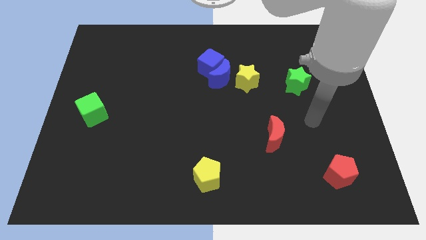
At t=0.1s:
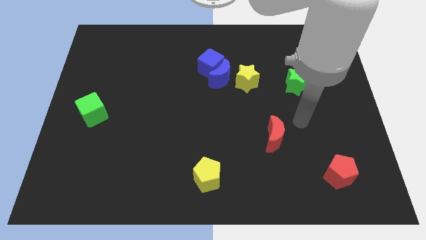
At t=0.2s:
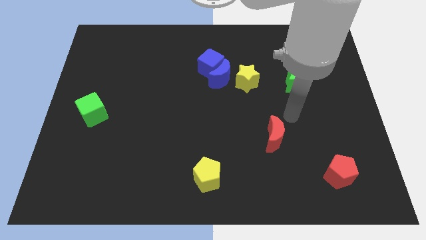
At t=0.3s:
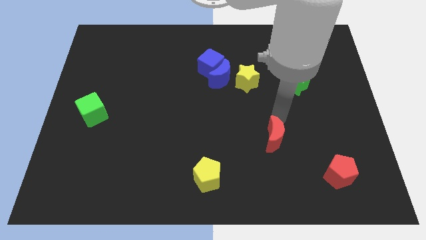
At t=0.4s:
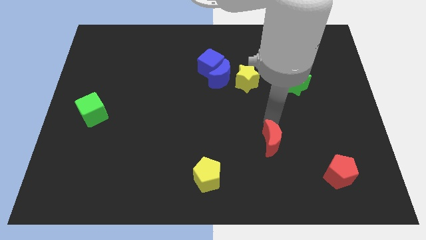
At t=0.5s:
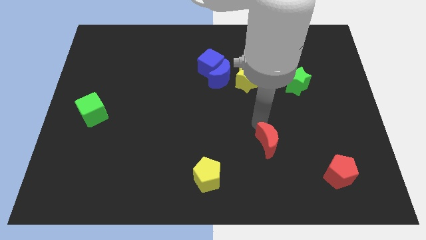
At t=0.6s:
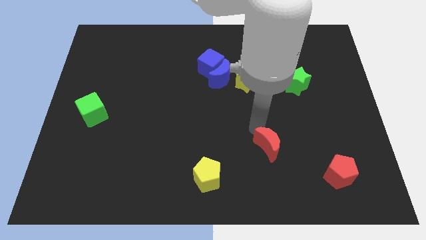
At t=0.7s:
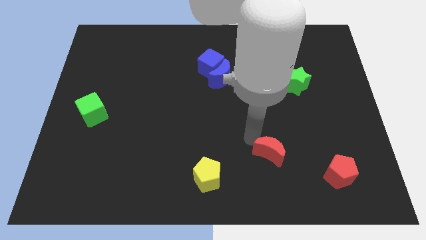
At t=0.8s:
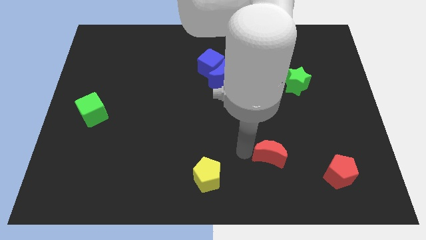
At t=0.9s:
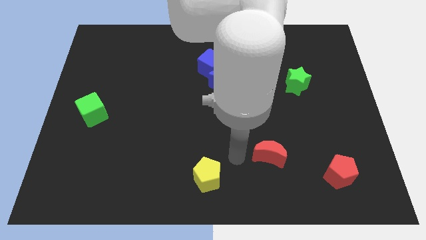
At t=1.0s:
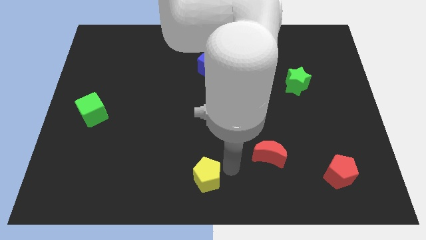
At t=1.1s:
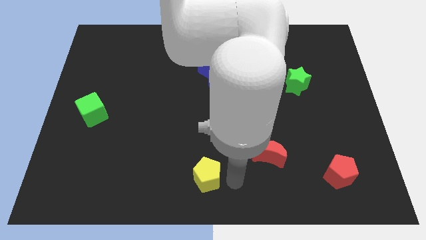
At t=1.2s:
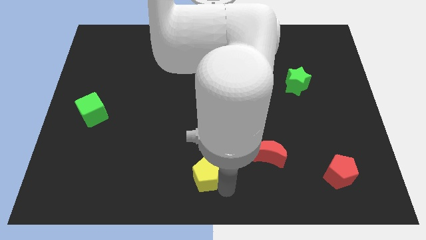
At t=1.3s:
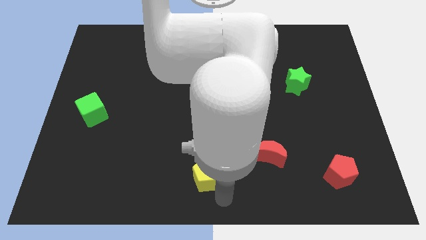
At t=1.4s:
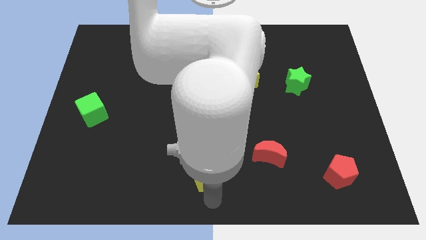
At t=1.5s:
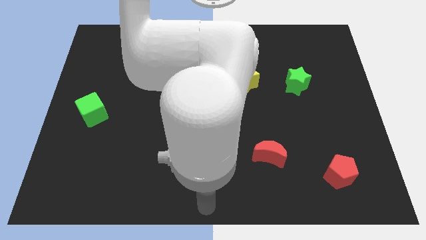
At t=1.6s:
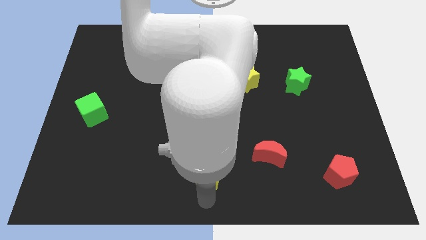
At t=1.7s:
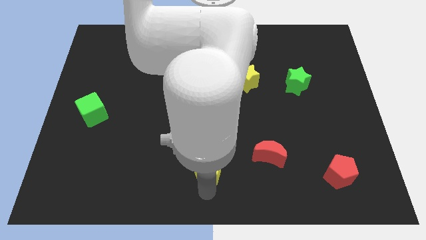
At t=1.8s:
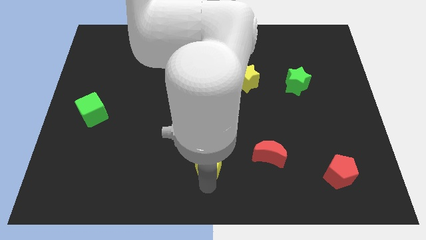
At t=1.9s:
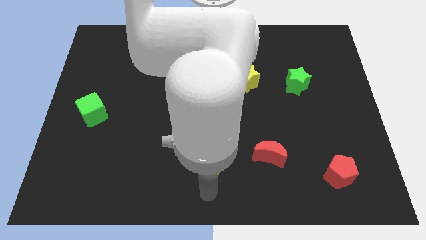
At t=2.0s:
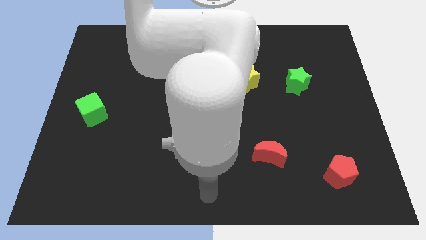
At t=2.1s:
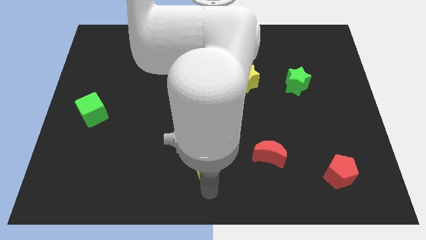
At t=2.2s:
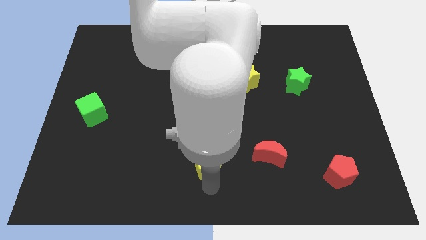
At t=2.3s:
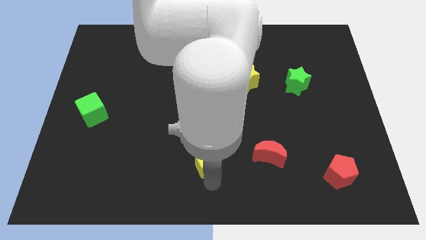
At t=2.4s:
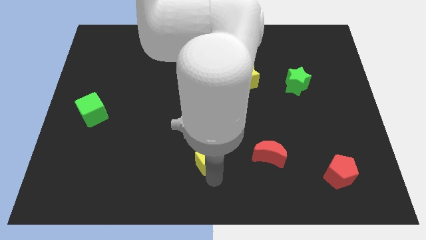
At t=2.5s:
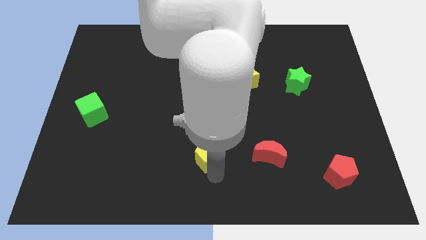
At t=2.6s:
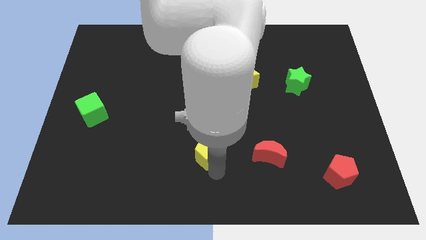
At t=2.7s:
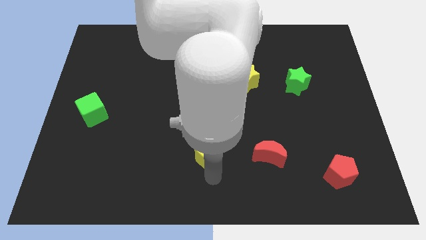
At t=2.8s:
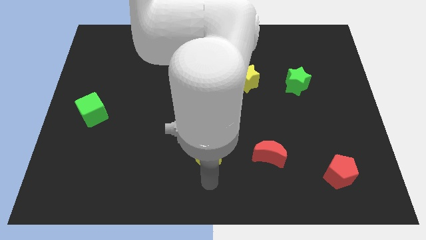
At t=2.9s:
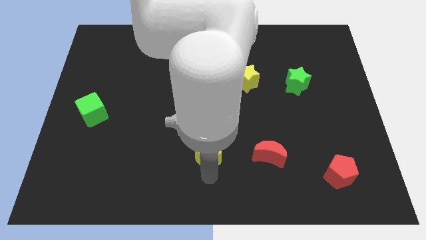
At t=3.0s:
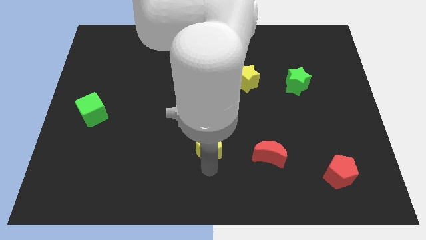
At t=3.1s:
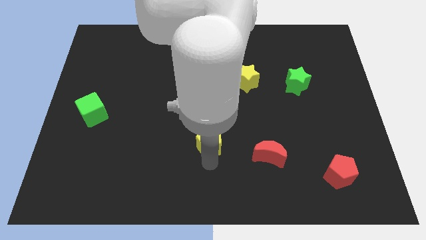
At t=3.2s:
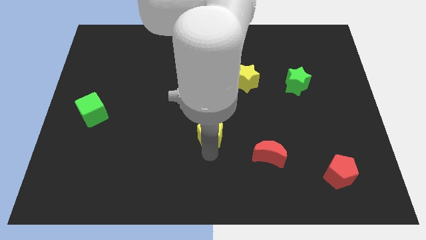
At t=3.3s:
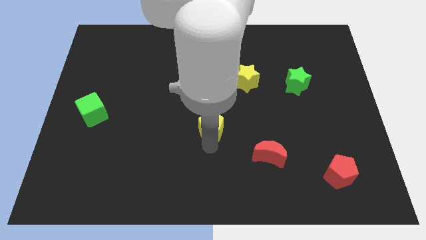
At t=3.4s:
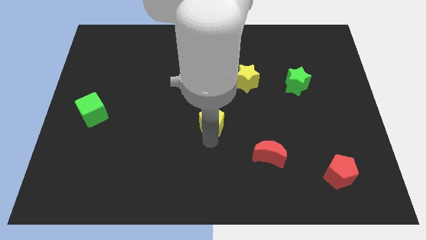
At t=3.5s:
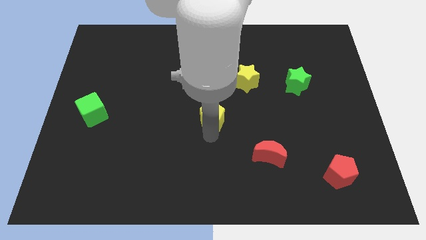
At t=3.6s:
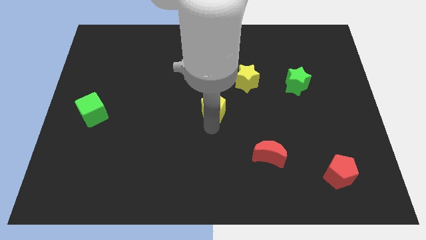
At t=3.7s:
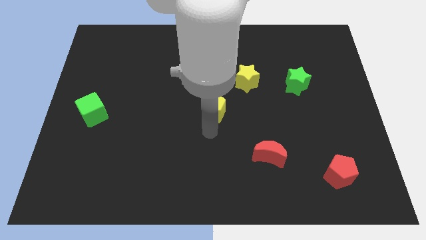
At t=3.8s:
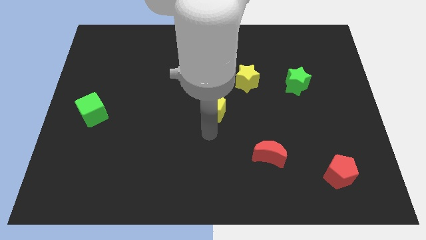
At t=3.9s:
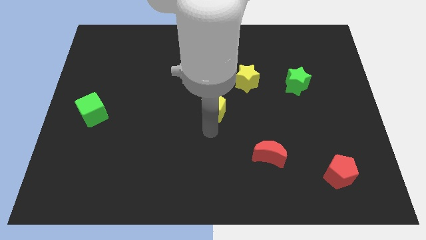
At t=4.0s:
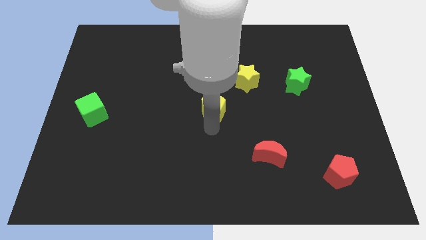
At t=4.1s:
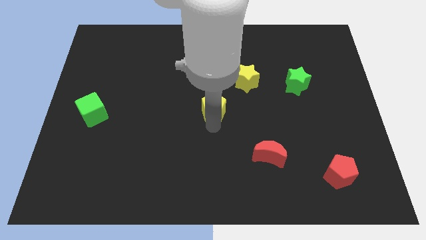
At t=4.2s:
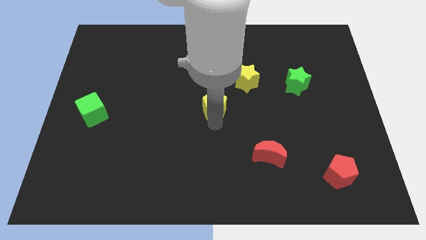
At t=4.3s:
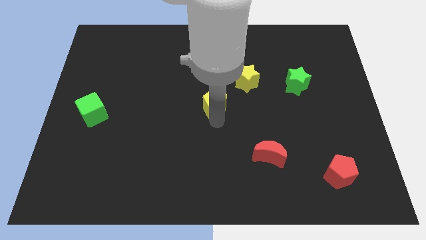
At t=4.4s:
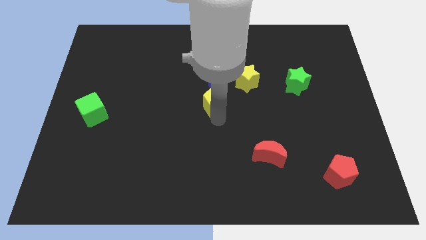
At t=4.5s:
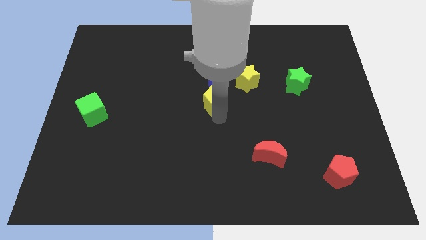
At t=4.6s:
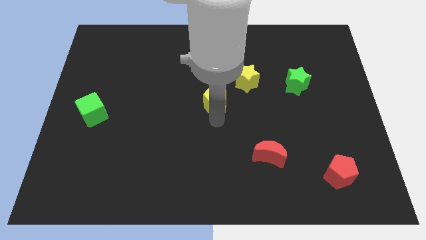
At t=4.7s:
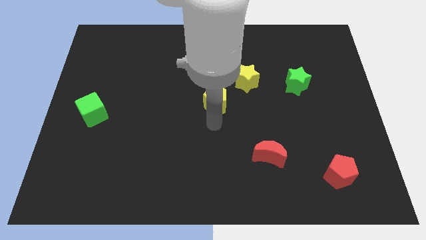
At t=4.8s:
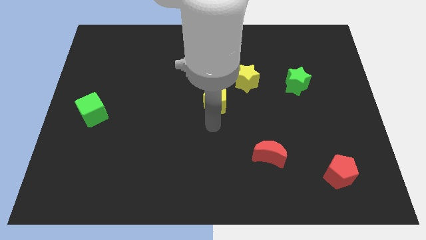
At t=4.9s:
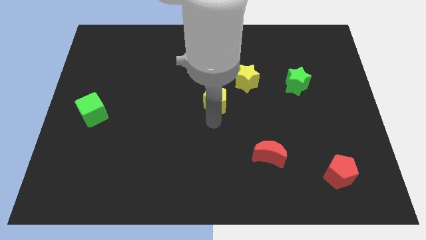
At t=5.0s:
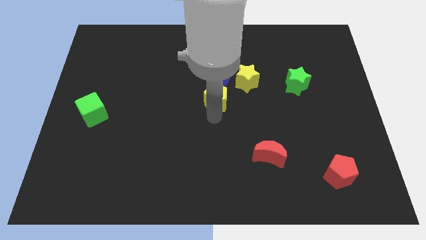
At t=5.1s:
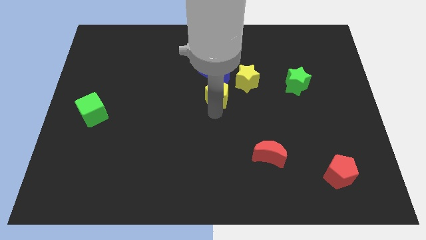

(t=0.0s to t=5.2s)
put the yellow pentagon next to the blue moon

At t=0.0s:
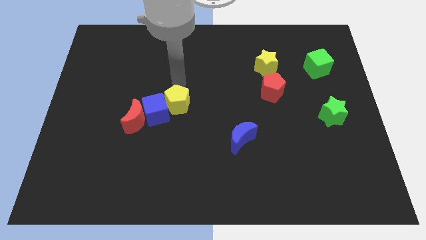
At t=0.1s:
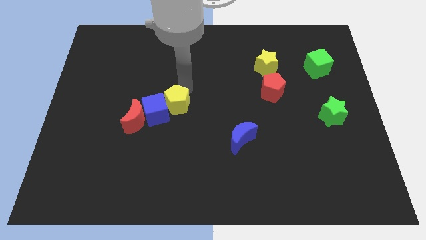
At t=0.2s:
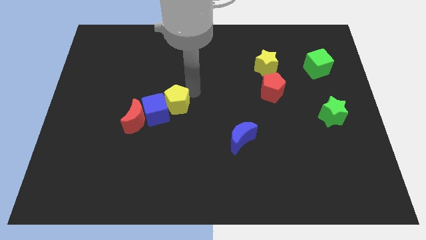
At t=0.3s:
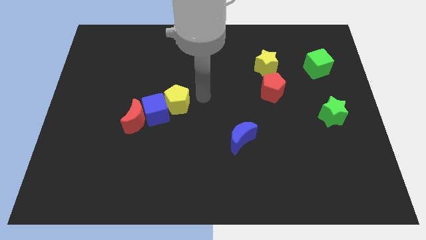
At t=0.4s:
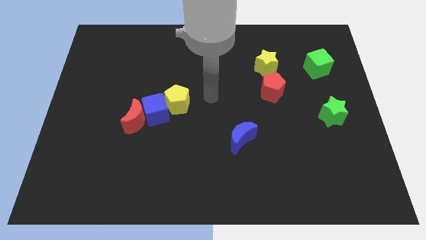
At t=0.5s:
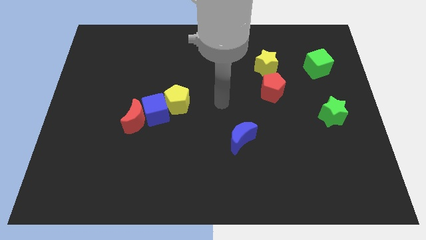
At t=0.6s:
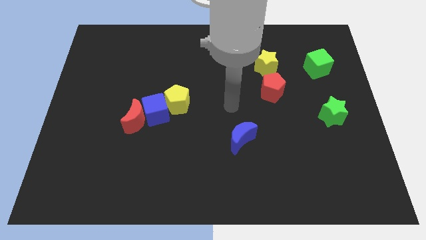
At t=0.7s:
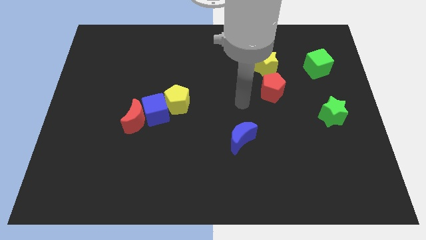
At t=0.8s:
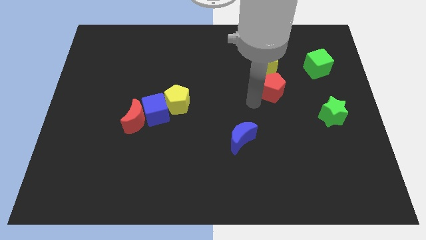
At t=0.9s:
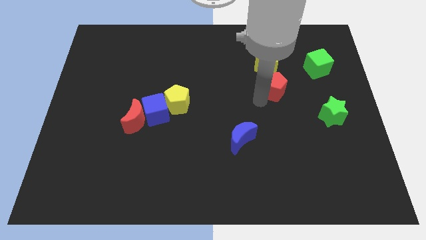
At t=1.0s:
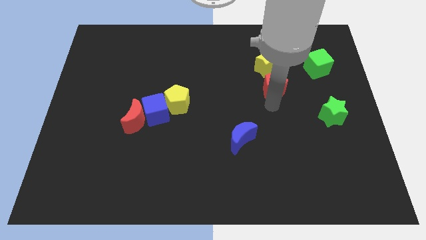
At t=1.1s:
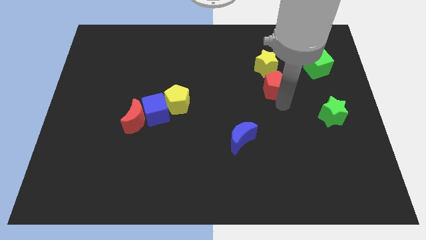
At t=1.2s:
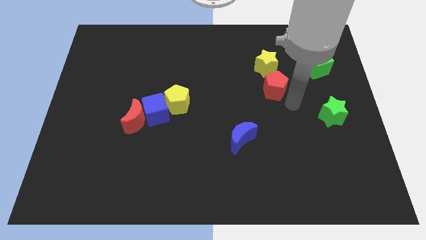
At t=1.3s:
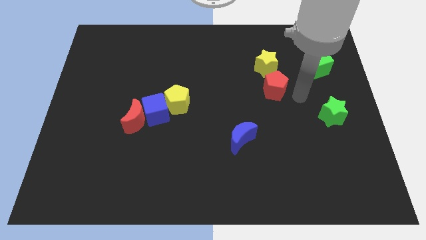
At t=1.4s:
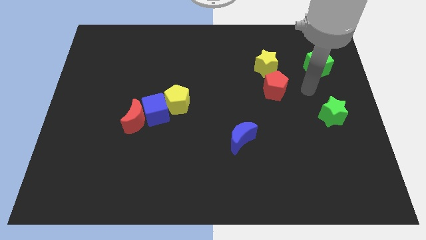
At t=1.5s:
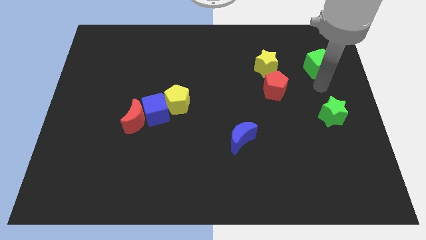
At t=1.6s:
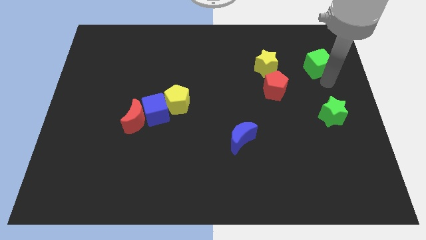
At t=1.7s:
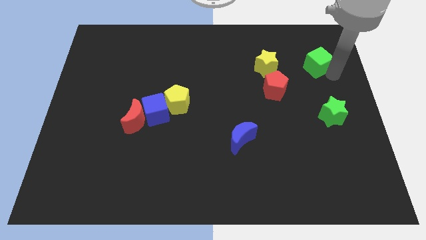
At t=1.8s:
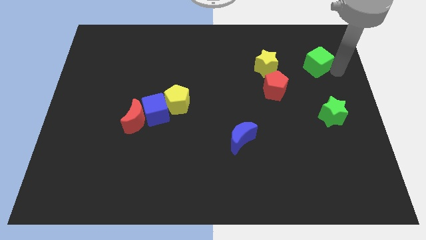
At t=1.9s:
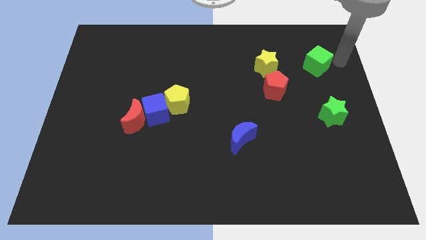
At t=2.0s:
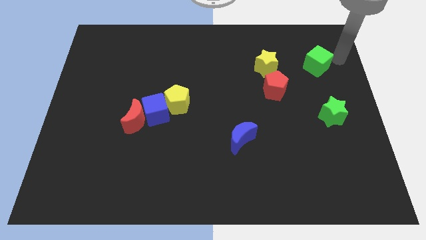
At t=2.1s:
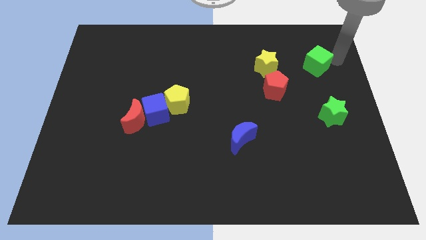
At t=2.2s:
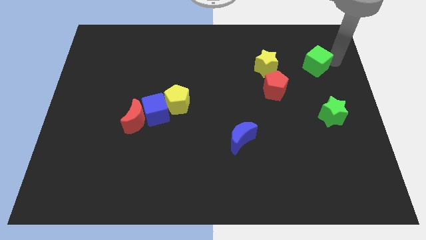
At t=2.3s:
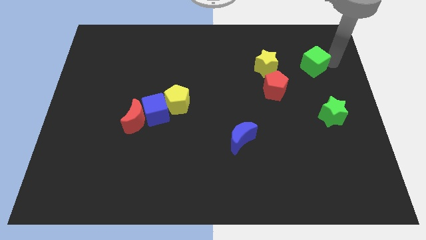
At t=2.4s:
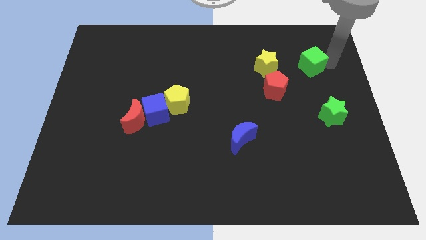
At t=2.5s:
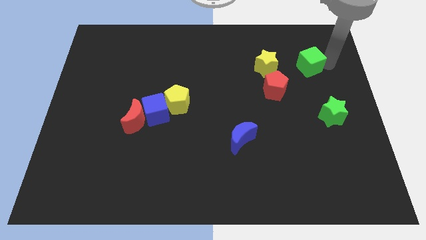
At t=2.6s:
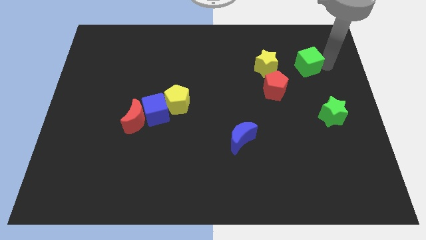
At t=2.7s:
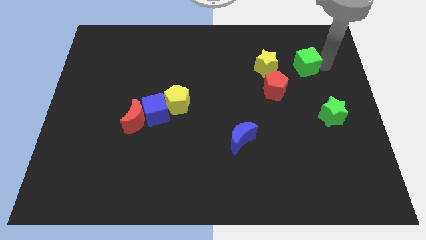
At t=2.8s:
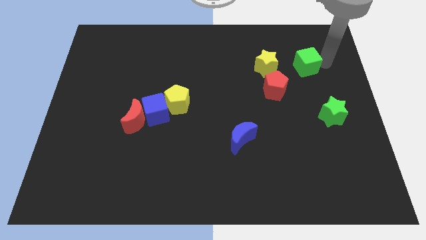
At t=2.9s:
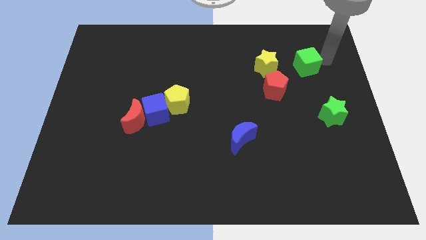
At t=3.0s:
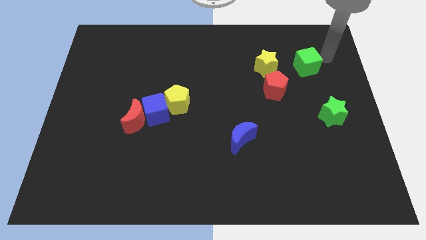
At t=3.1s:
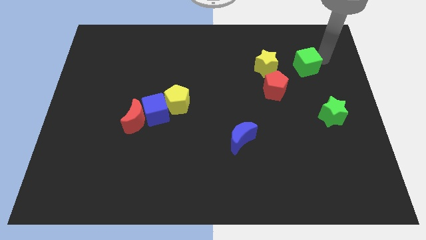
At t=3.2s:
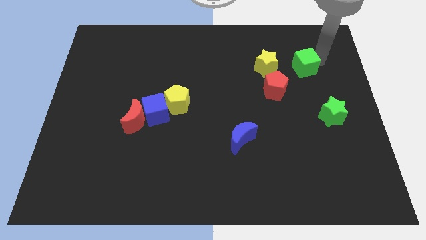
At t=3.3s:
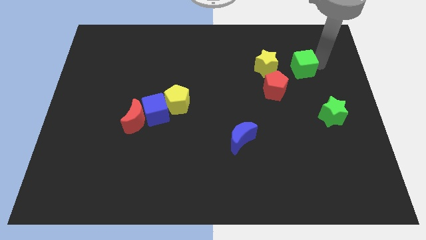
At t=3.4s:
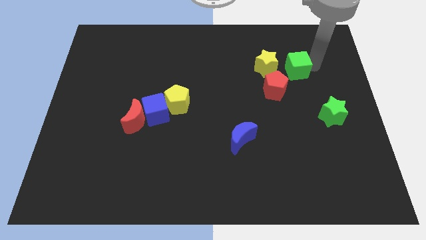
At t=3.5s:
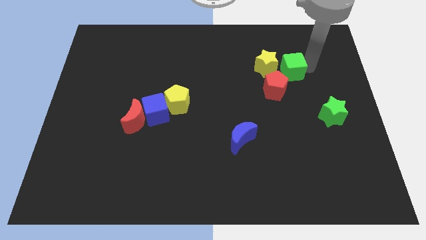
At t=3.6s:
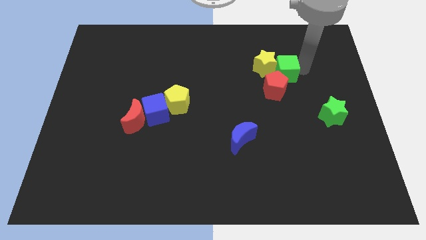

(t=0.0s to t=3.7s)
push the green cube towards the yellow star
